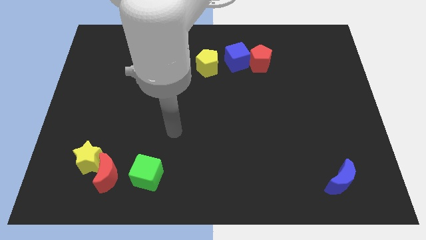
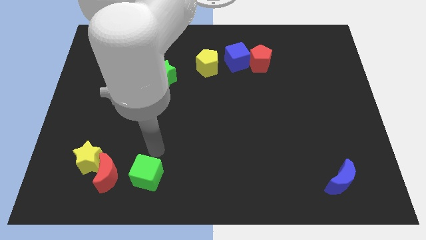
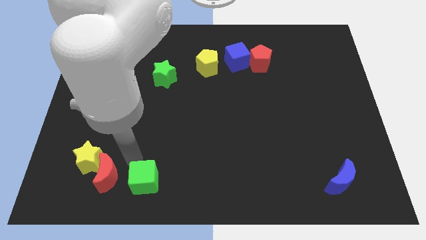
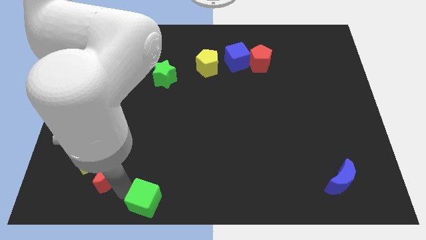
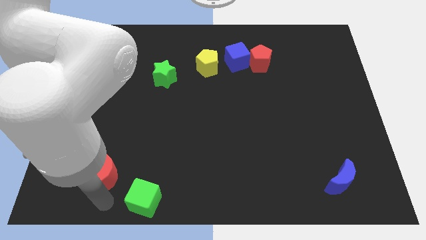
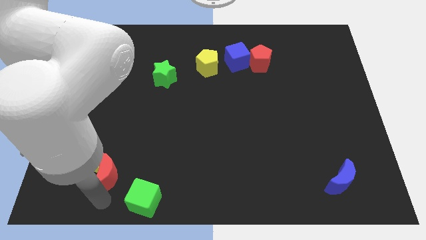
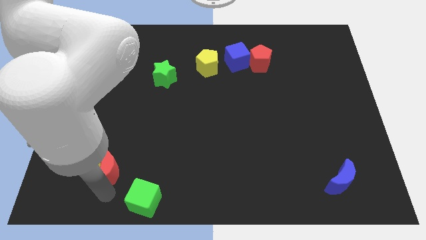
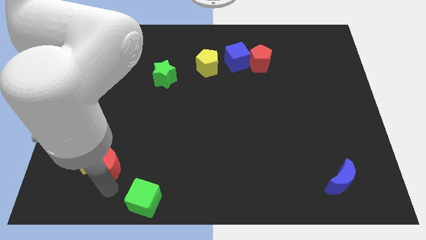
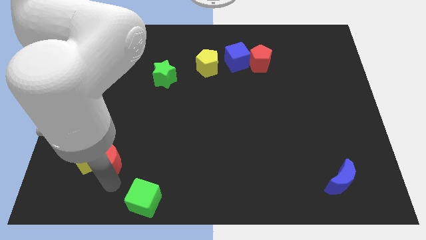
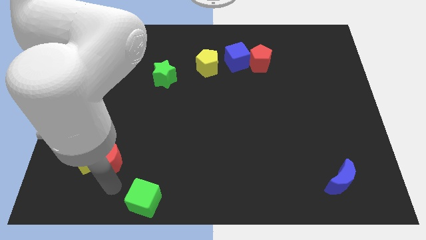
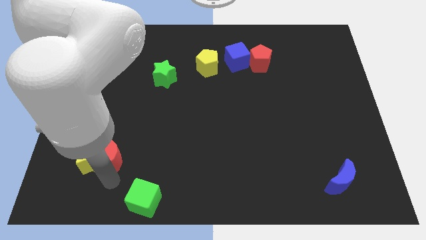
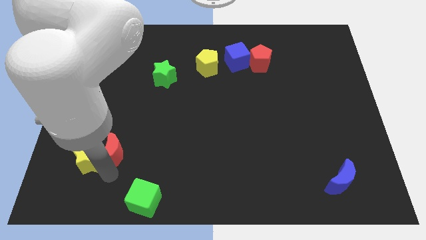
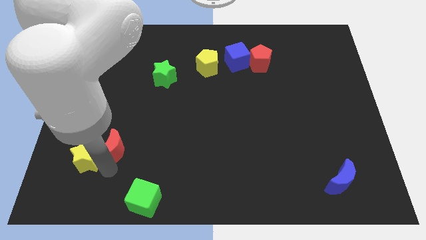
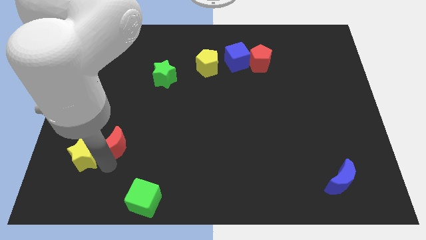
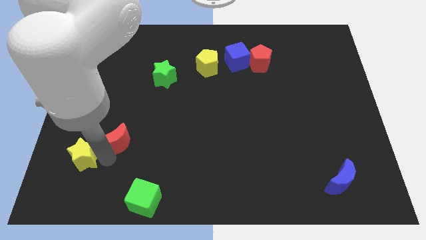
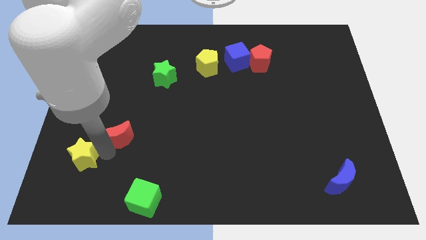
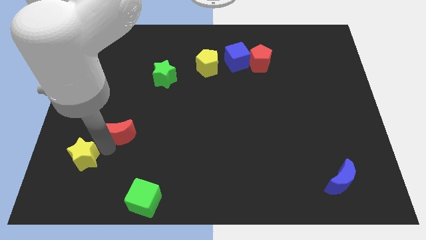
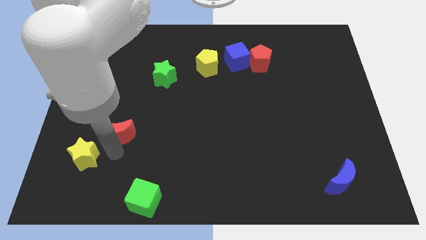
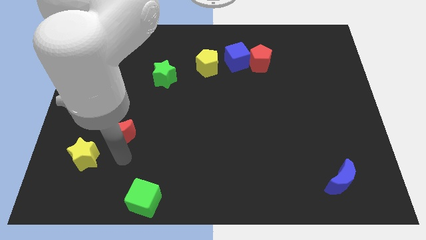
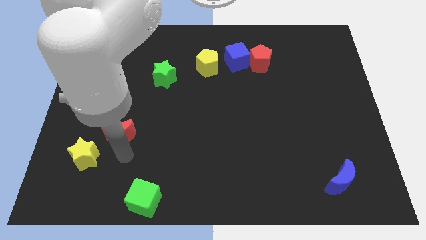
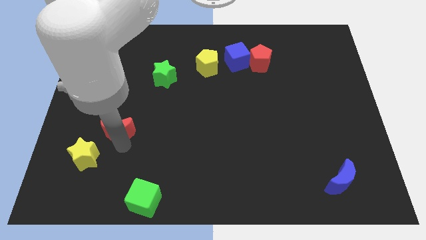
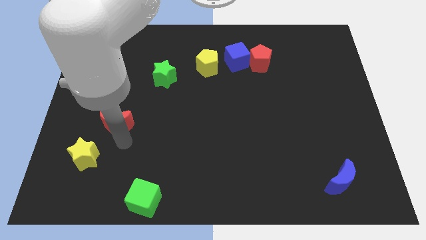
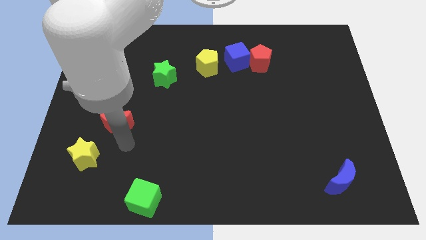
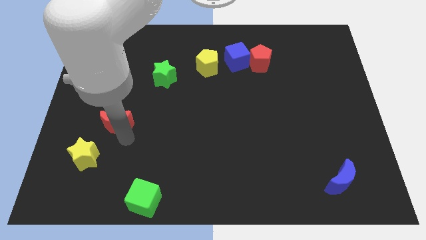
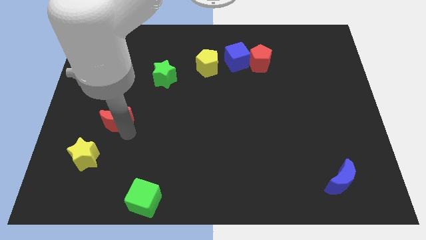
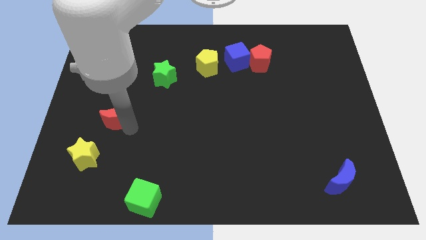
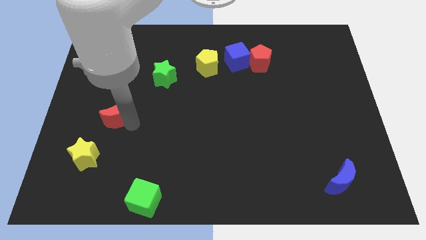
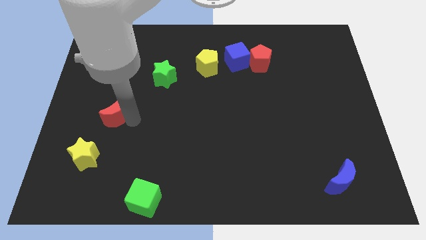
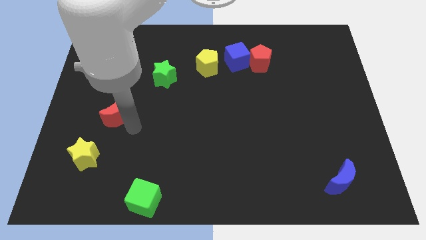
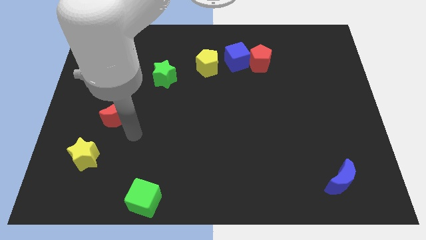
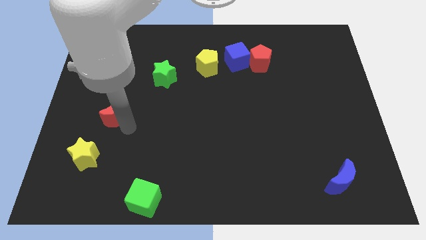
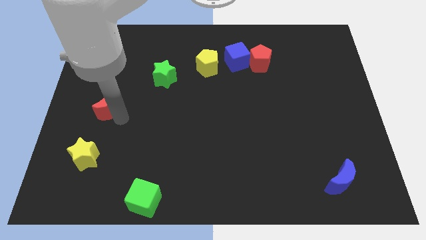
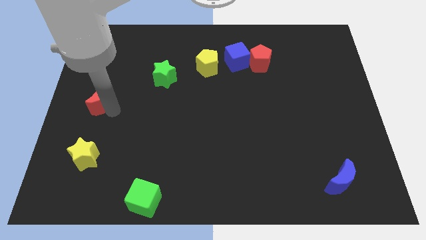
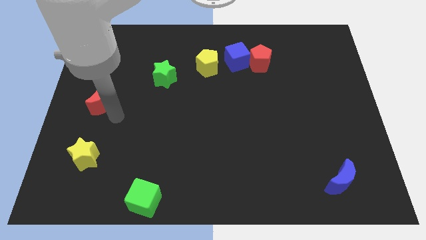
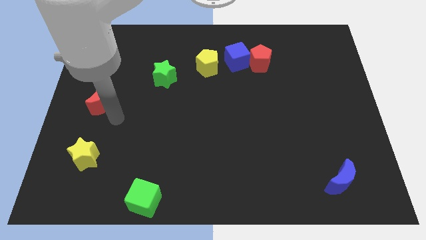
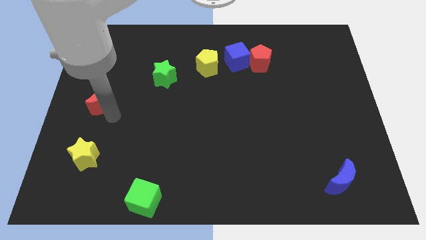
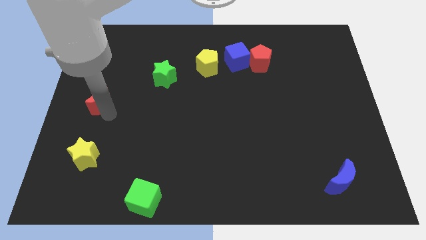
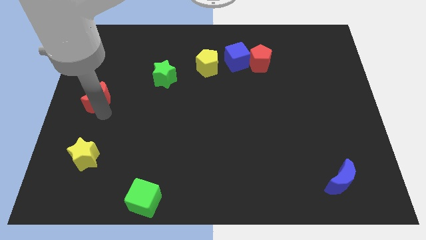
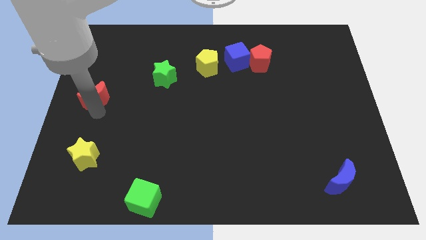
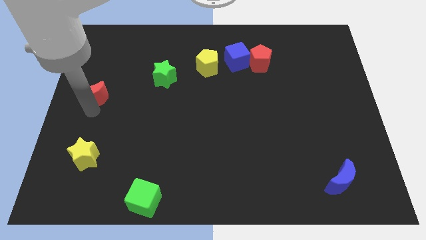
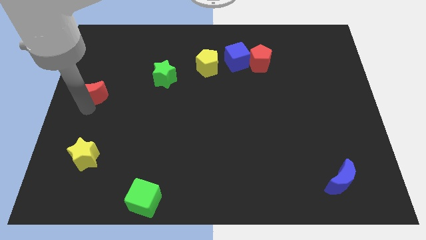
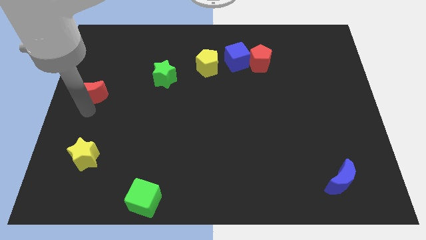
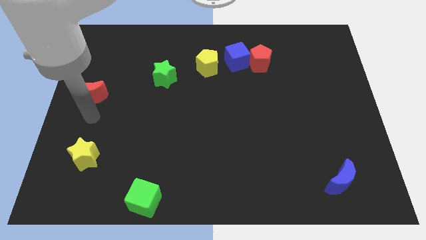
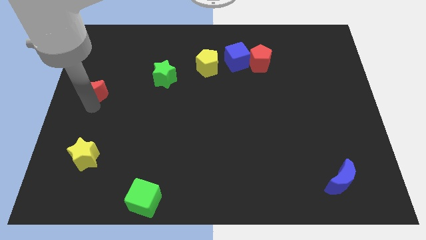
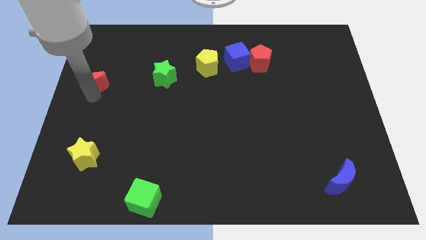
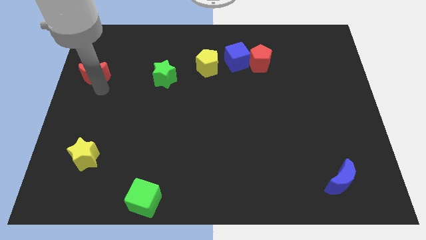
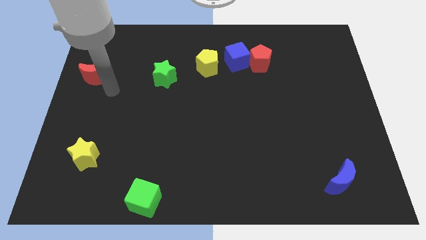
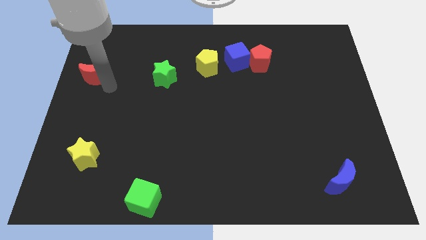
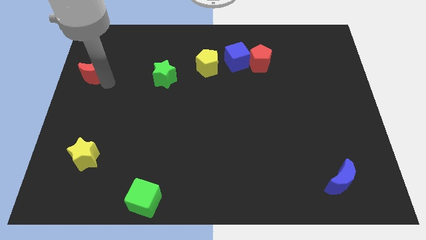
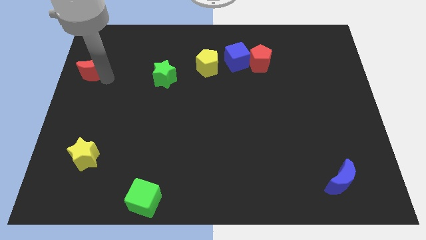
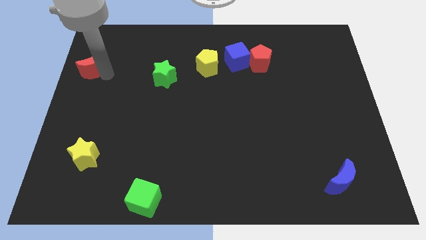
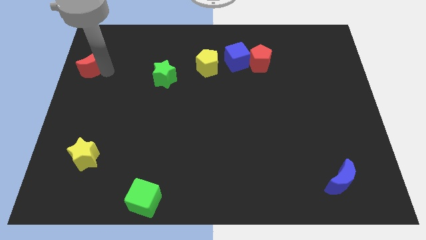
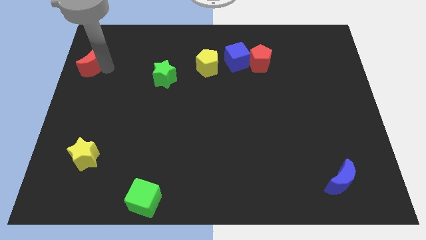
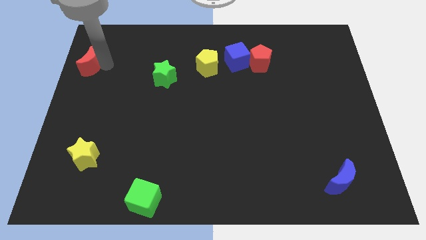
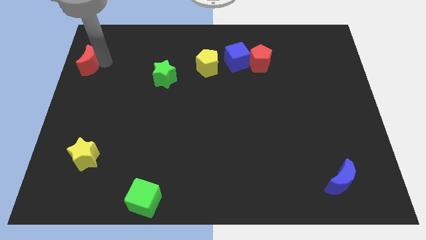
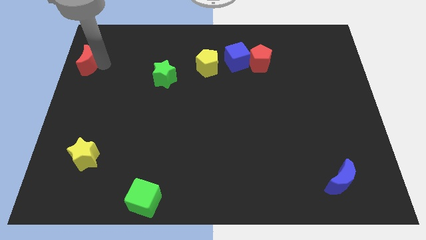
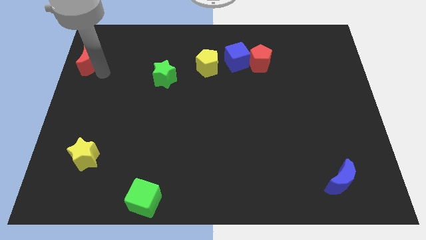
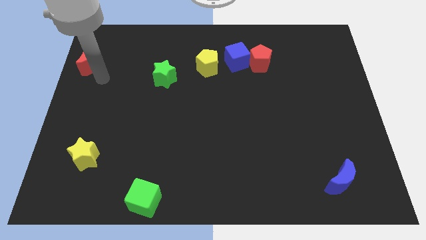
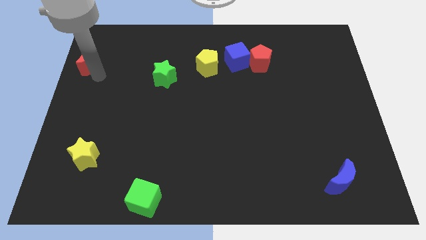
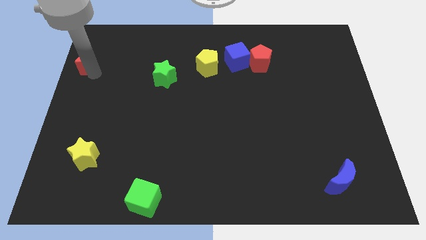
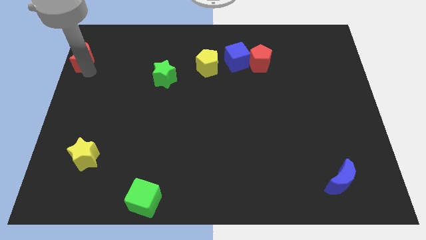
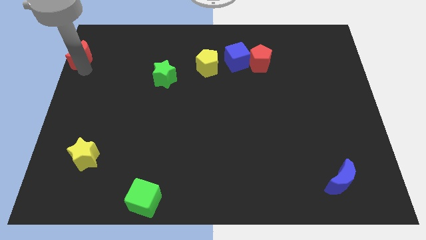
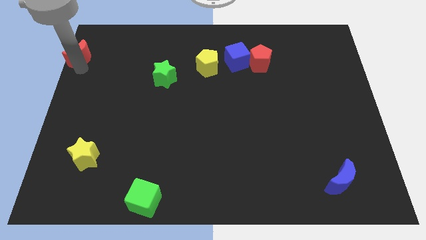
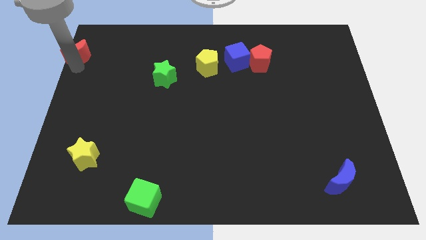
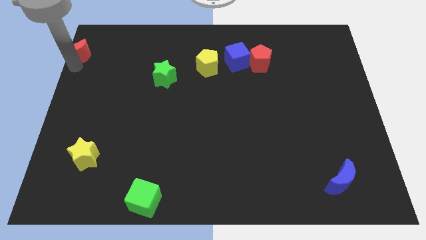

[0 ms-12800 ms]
put the red moon to the top left corner

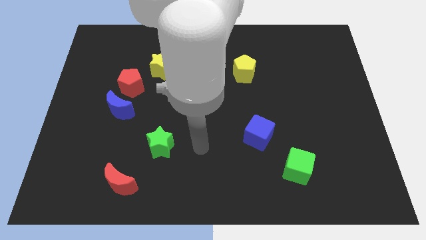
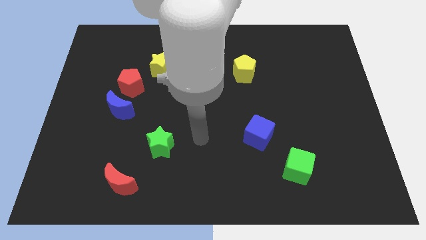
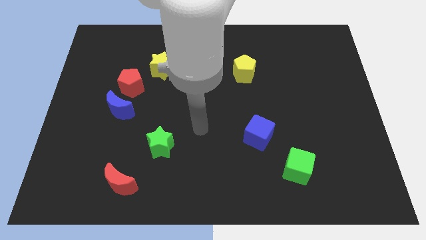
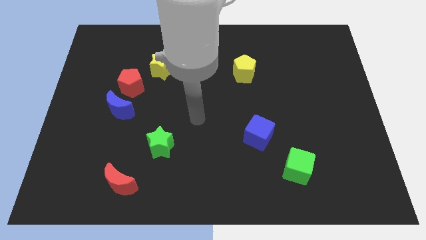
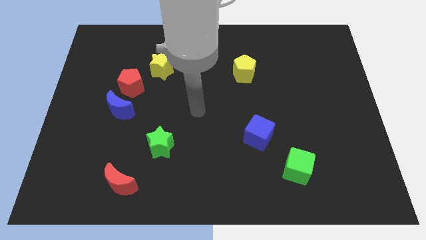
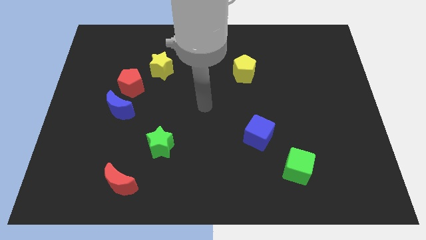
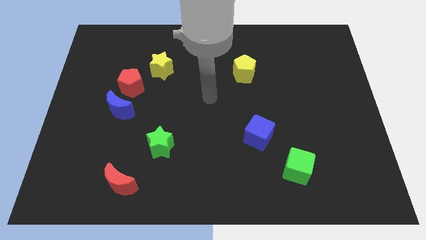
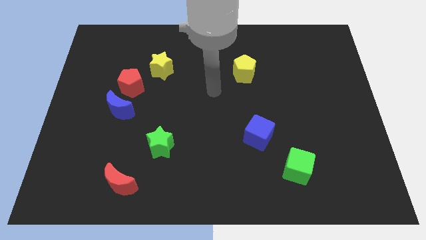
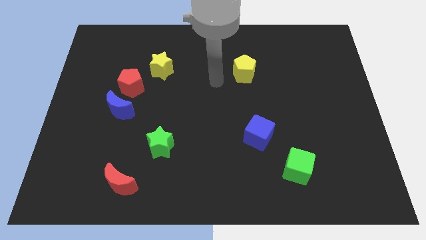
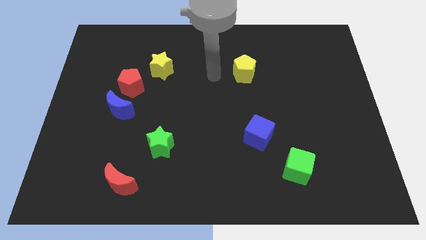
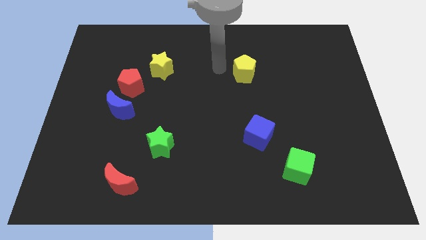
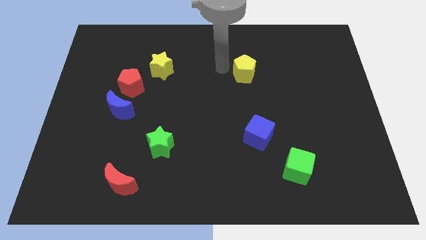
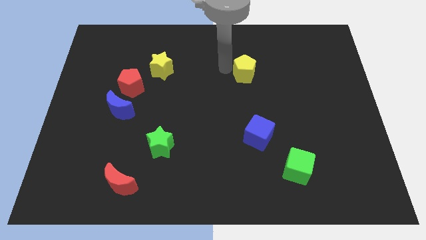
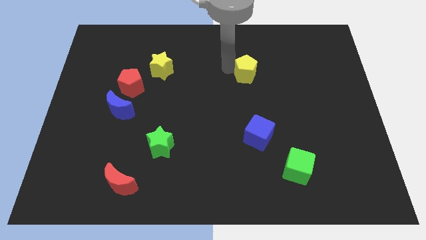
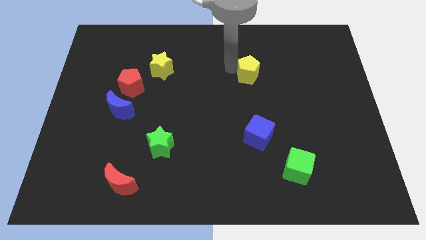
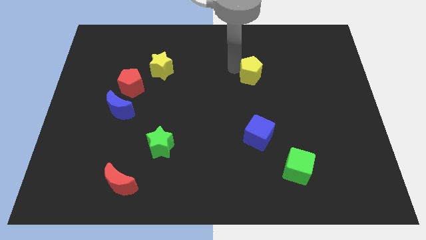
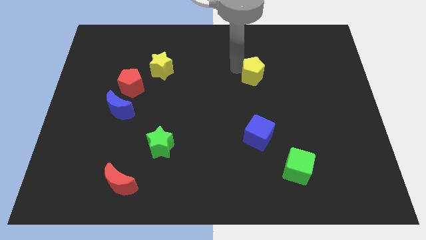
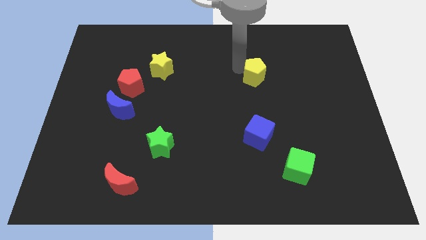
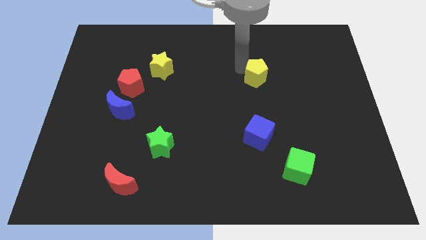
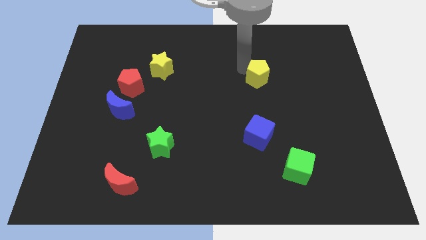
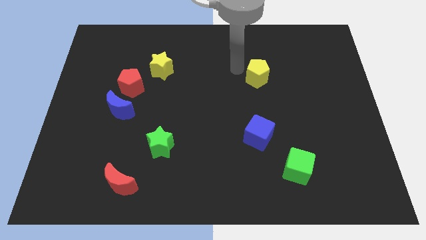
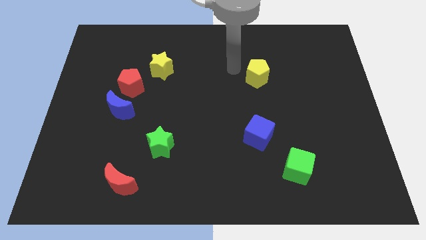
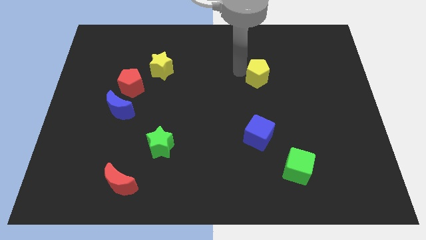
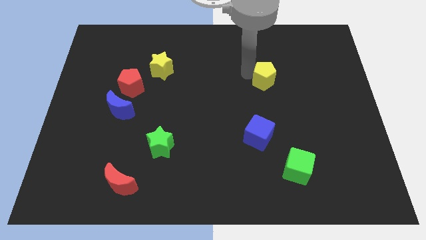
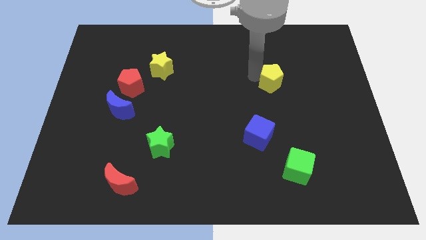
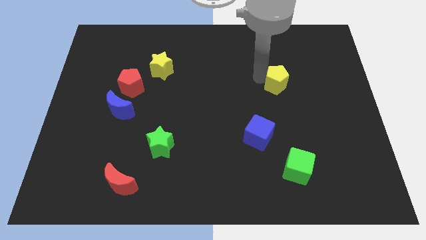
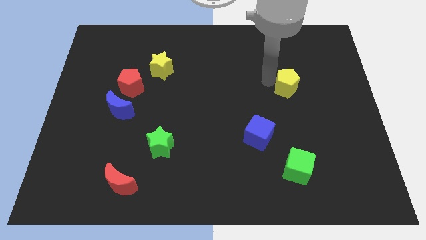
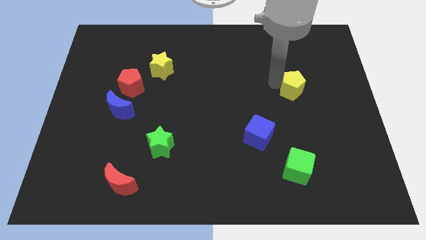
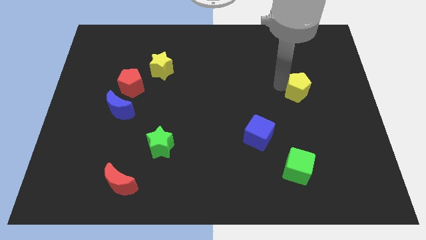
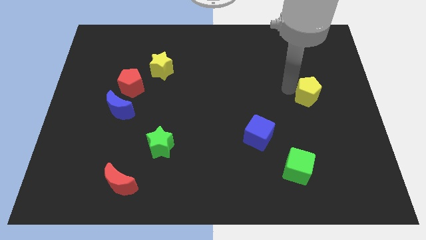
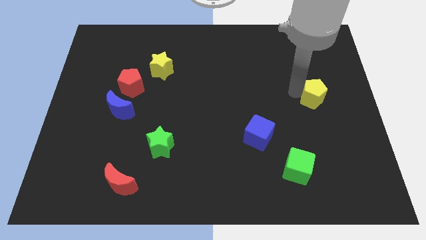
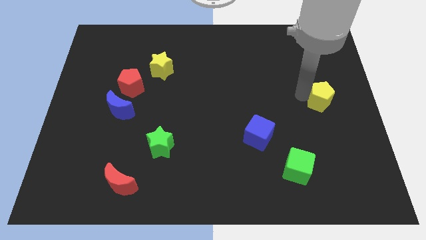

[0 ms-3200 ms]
slide the yellow pentagon to the right side of the board
